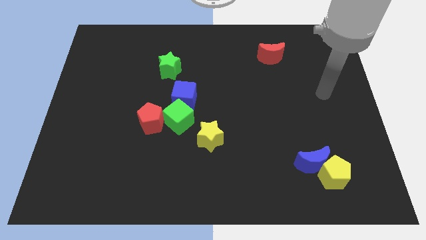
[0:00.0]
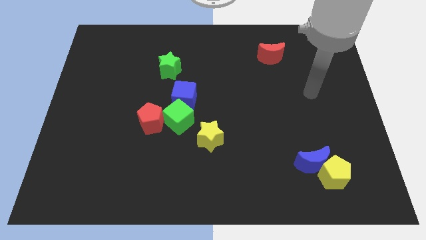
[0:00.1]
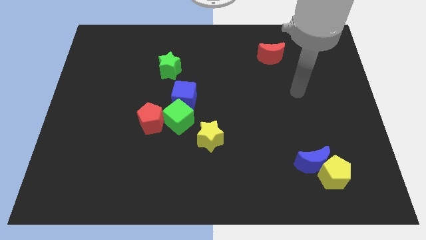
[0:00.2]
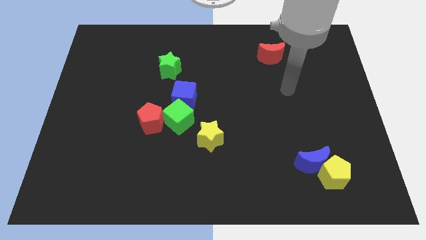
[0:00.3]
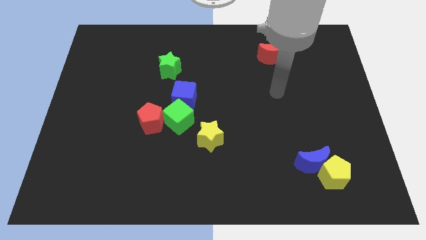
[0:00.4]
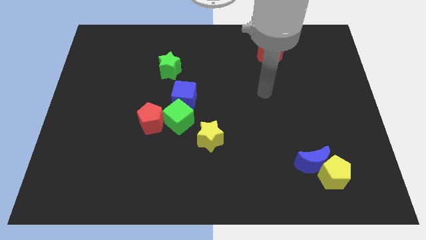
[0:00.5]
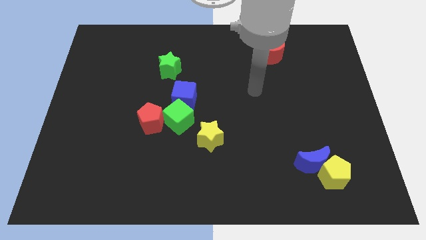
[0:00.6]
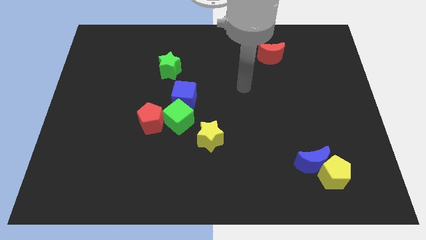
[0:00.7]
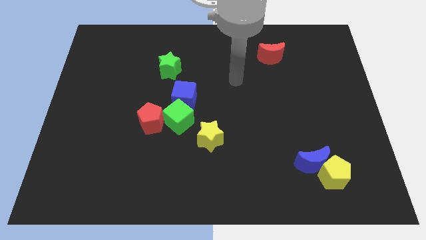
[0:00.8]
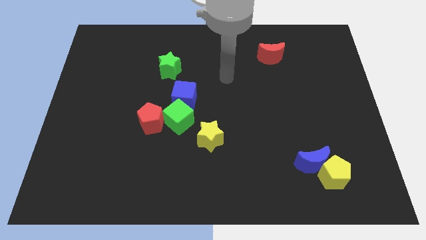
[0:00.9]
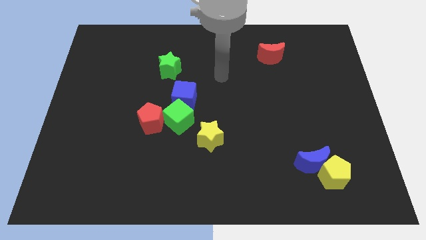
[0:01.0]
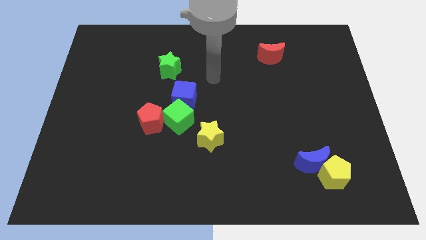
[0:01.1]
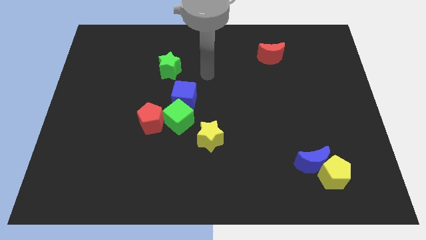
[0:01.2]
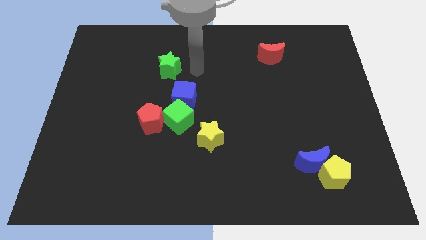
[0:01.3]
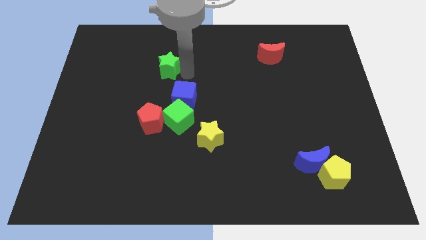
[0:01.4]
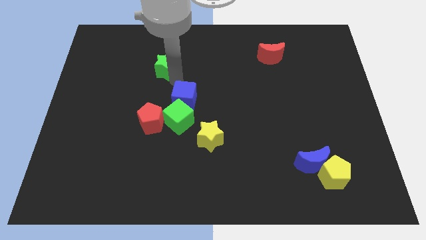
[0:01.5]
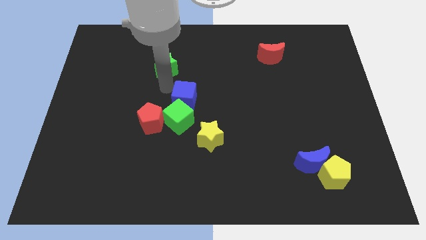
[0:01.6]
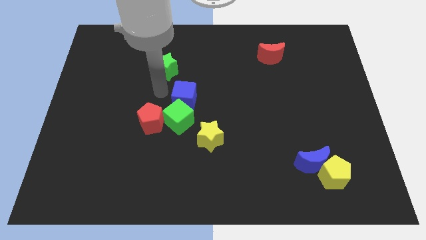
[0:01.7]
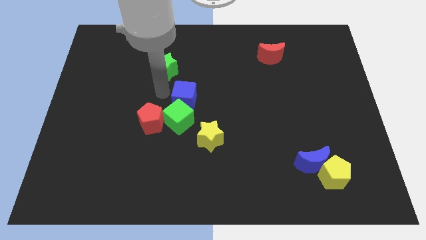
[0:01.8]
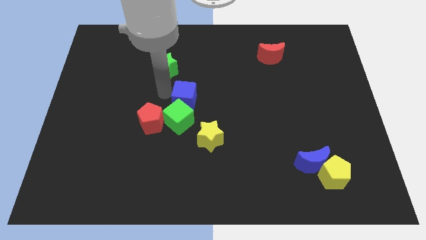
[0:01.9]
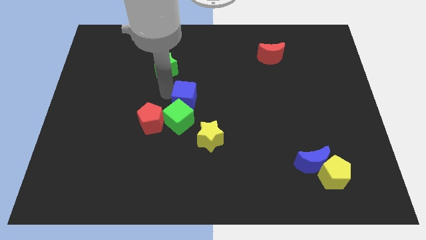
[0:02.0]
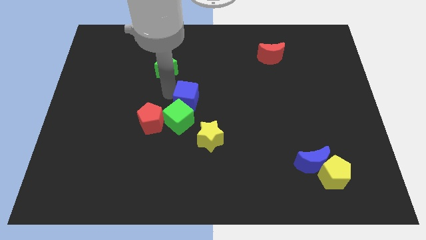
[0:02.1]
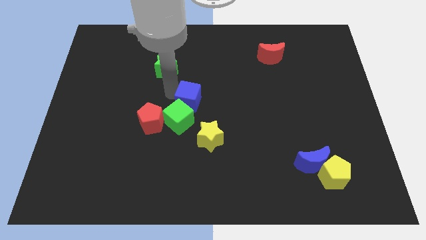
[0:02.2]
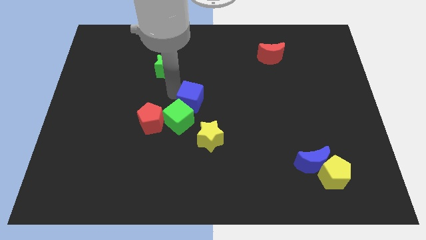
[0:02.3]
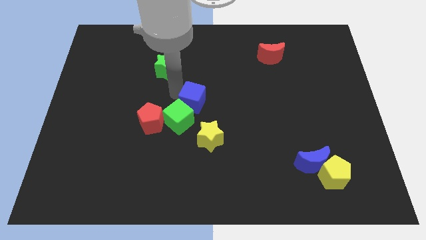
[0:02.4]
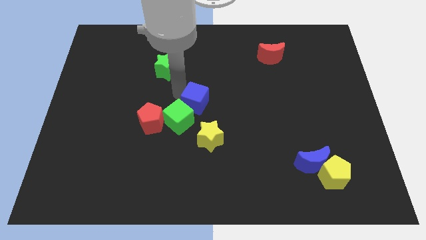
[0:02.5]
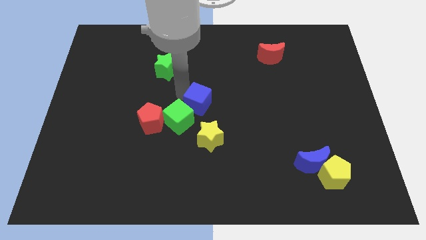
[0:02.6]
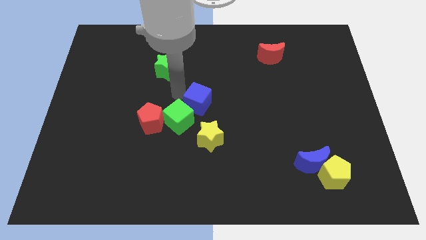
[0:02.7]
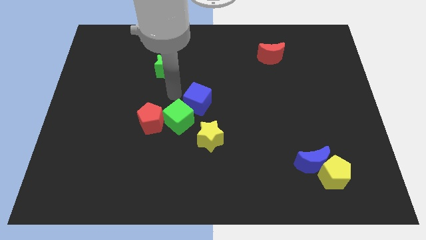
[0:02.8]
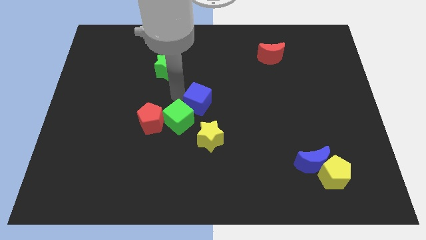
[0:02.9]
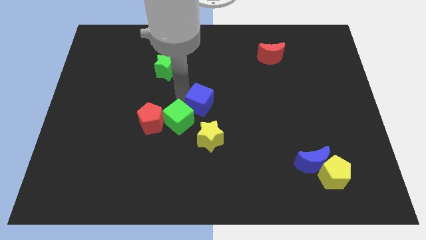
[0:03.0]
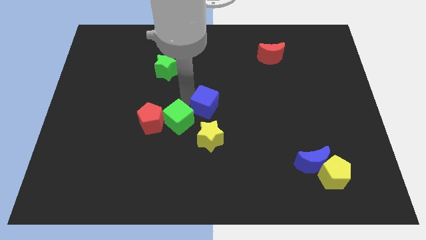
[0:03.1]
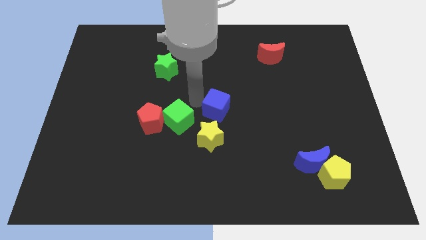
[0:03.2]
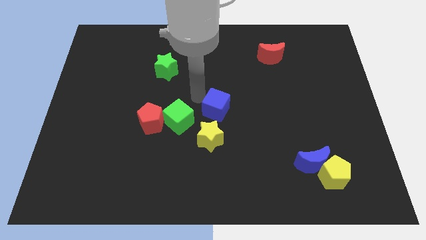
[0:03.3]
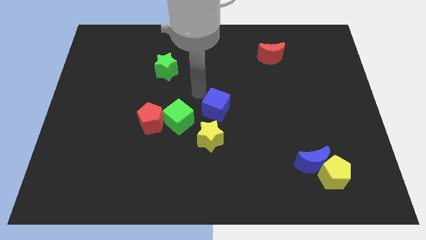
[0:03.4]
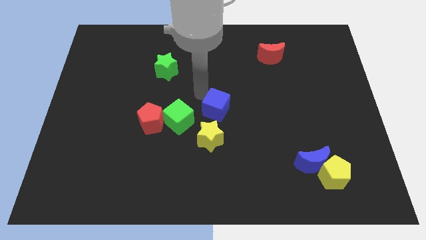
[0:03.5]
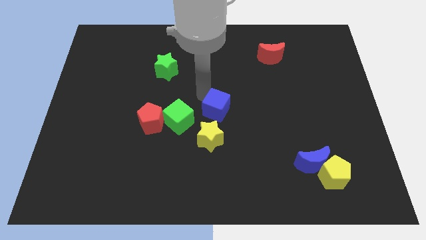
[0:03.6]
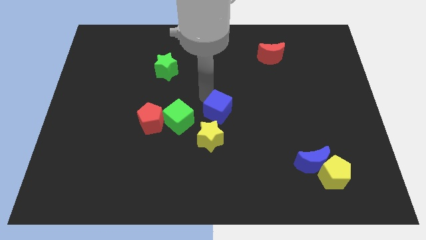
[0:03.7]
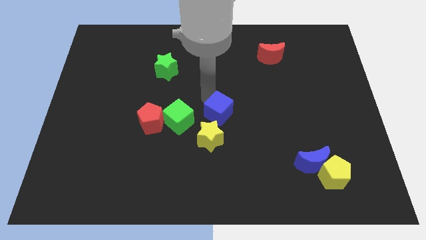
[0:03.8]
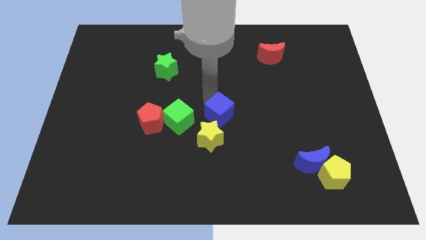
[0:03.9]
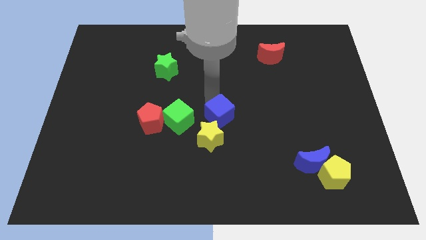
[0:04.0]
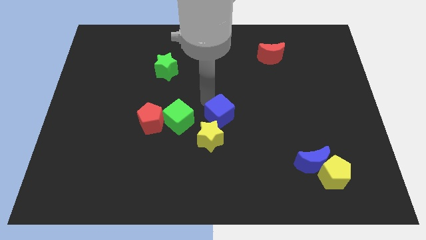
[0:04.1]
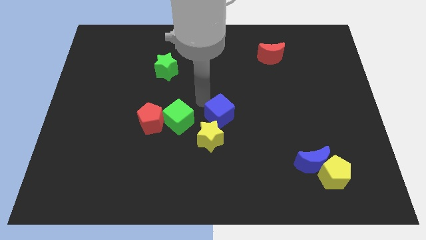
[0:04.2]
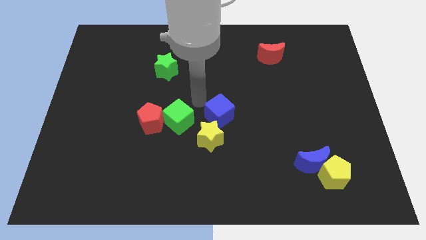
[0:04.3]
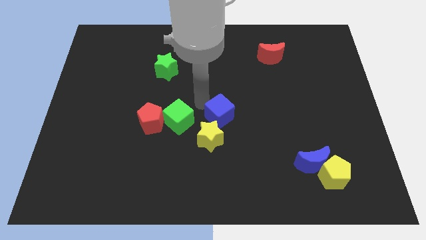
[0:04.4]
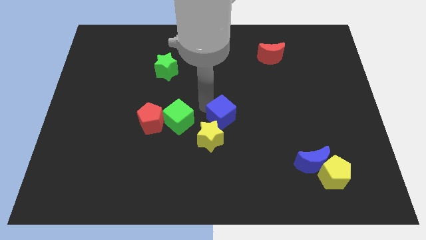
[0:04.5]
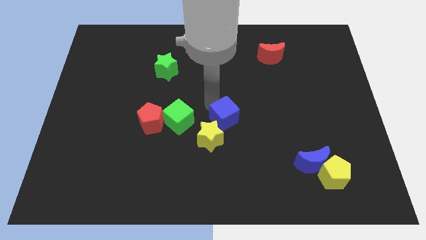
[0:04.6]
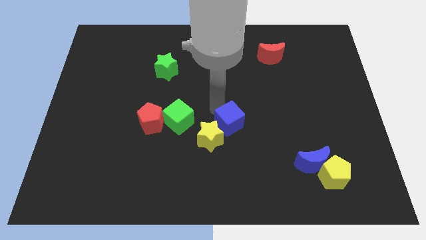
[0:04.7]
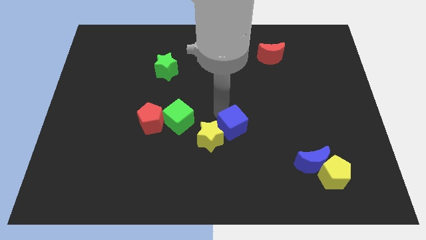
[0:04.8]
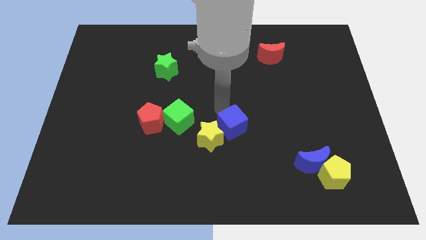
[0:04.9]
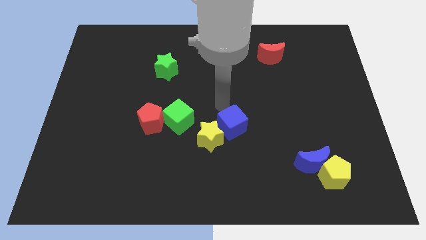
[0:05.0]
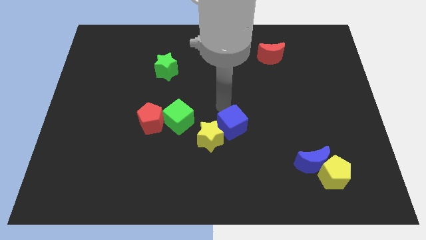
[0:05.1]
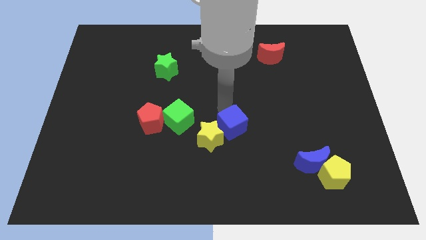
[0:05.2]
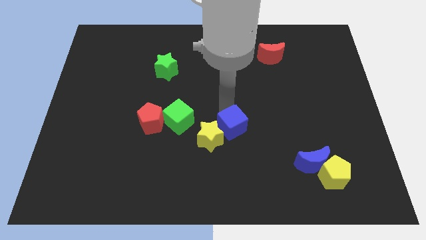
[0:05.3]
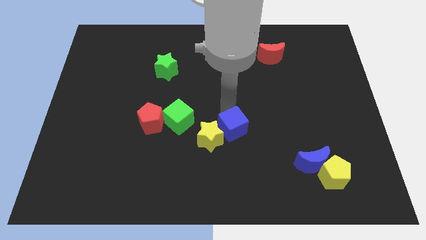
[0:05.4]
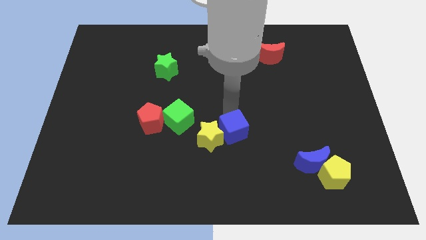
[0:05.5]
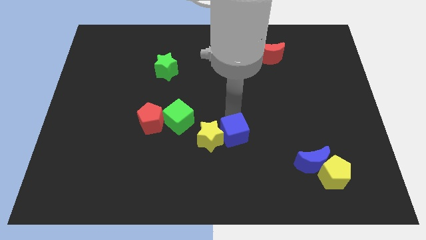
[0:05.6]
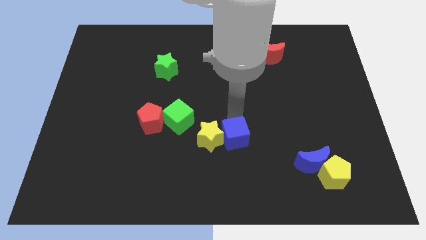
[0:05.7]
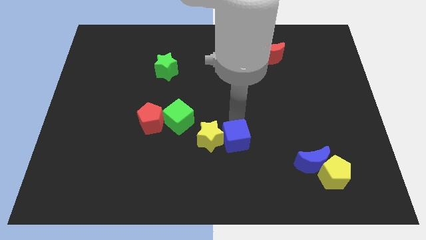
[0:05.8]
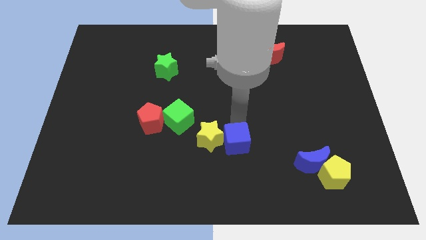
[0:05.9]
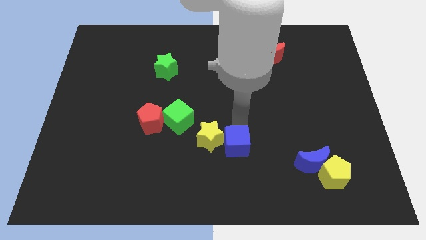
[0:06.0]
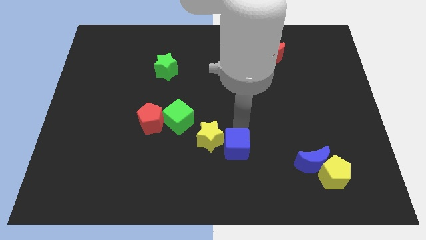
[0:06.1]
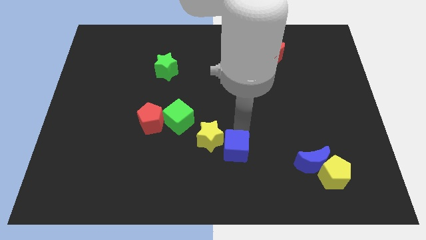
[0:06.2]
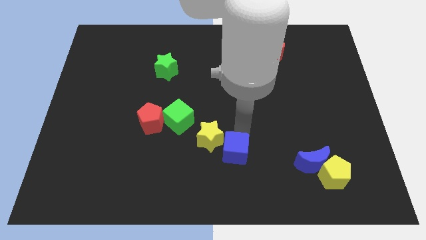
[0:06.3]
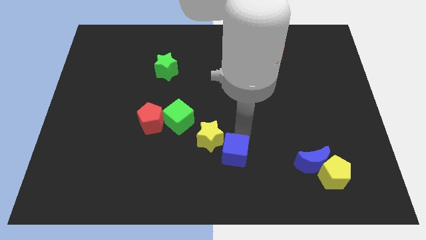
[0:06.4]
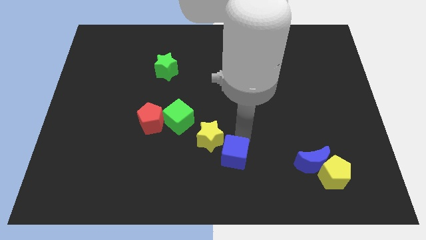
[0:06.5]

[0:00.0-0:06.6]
put the blue cube to the bottom
